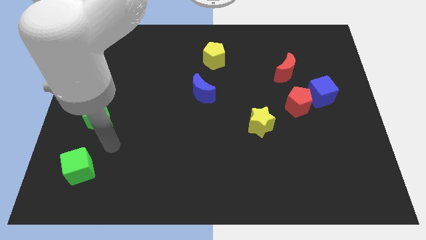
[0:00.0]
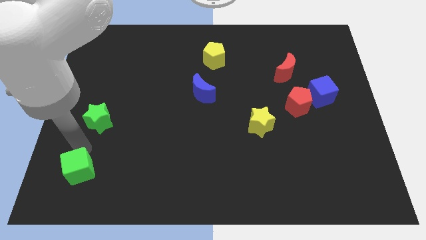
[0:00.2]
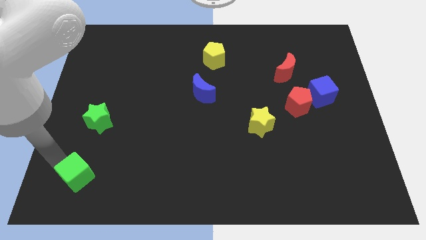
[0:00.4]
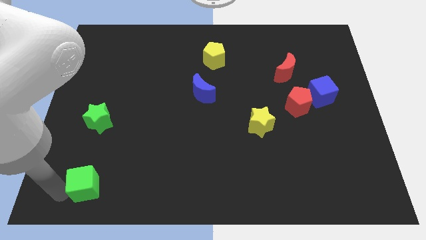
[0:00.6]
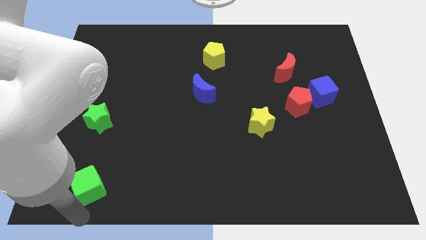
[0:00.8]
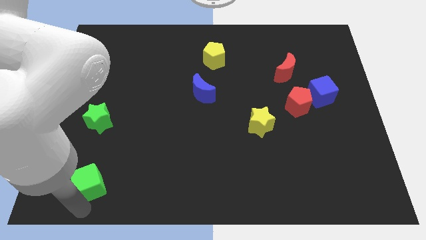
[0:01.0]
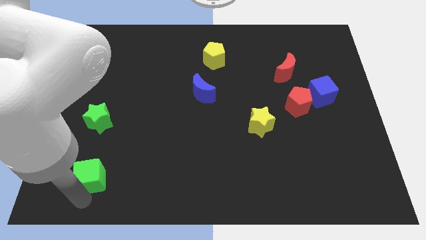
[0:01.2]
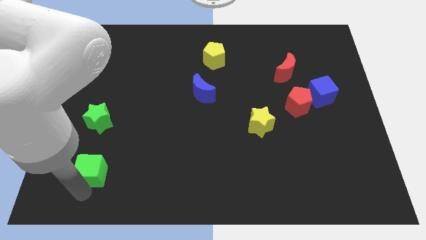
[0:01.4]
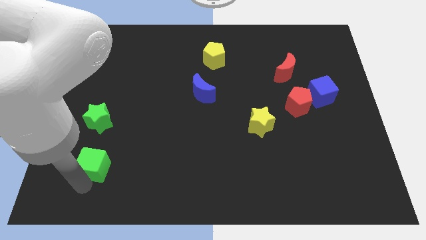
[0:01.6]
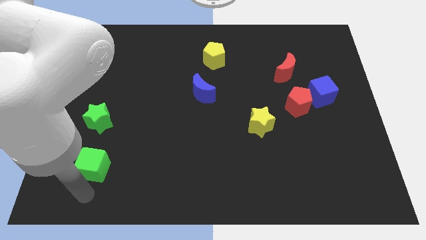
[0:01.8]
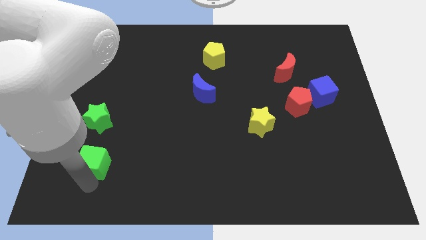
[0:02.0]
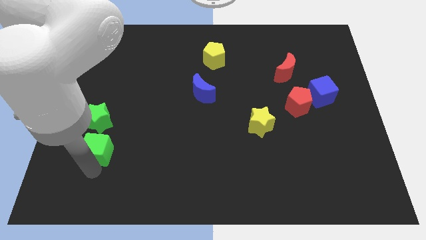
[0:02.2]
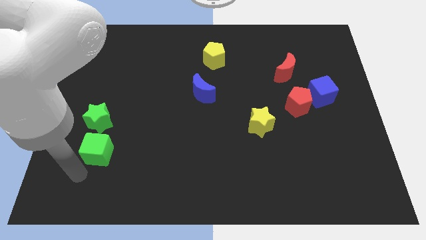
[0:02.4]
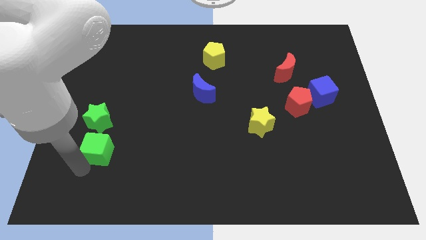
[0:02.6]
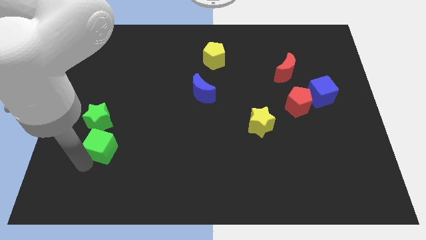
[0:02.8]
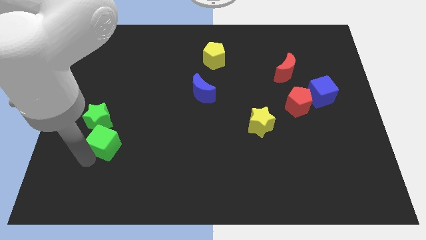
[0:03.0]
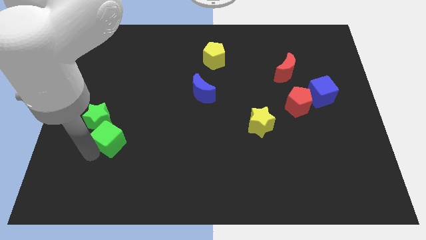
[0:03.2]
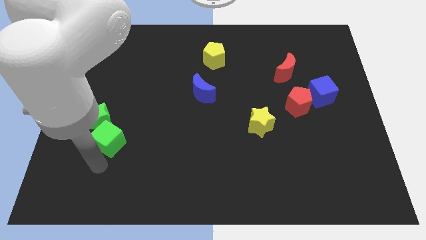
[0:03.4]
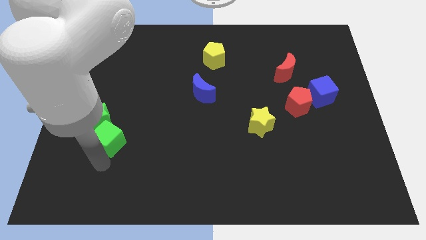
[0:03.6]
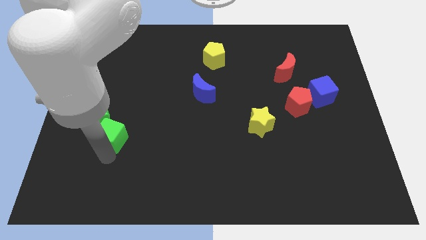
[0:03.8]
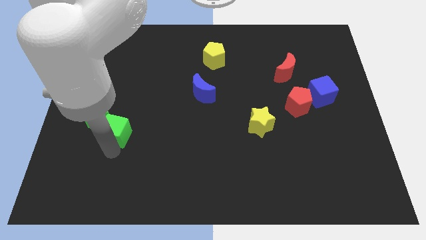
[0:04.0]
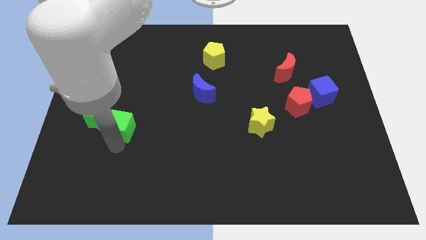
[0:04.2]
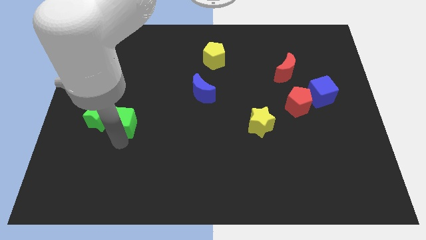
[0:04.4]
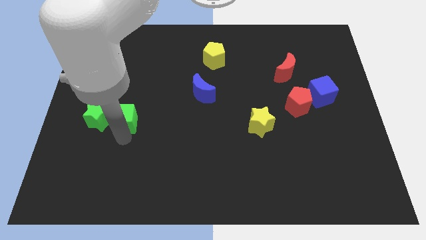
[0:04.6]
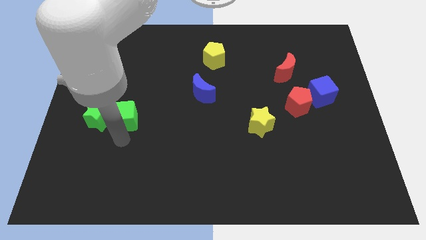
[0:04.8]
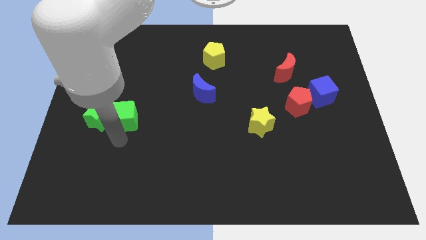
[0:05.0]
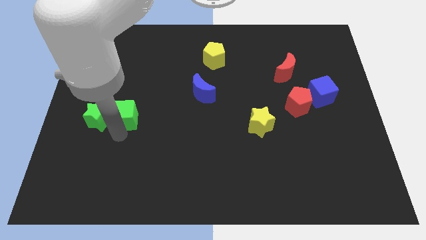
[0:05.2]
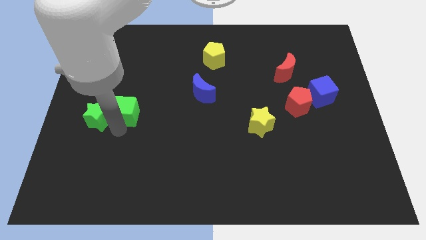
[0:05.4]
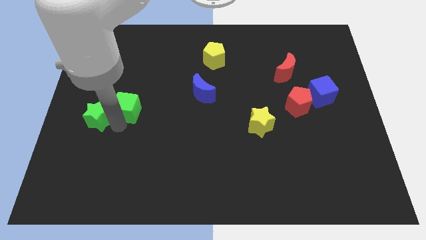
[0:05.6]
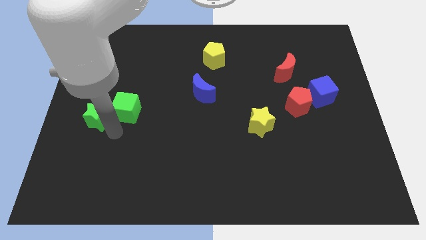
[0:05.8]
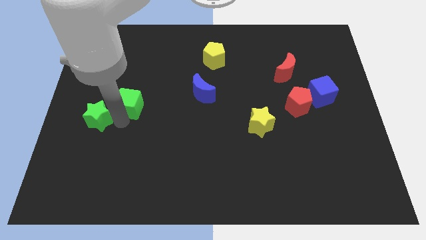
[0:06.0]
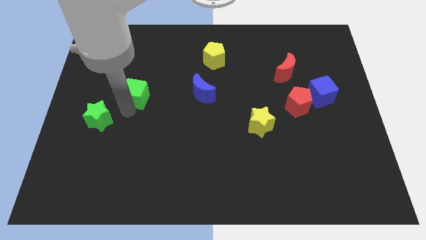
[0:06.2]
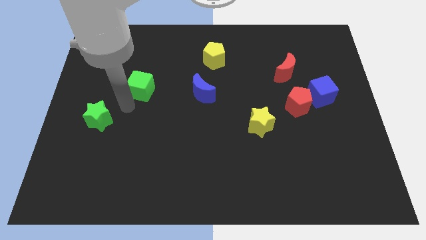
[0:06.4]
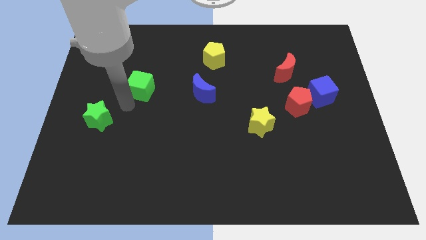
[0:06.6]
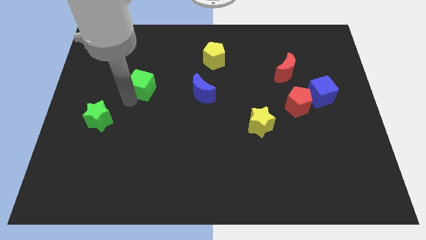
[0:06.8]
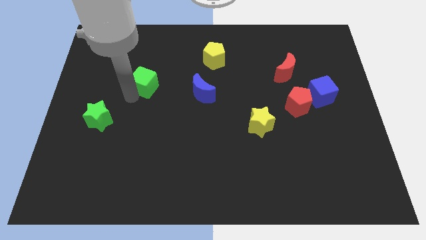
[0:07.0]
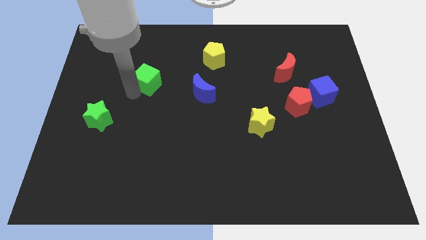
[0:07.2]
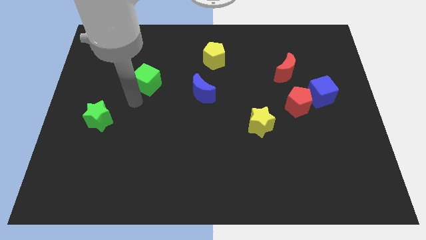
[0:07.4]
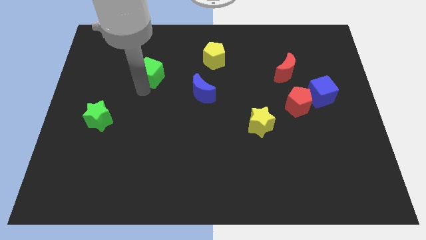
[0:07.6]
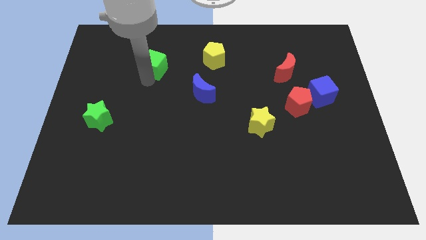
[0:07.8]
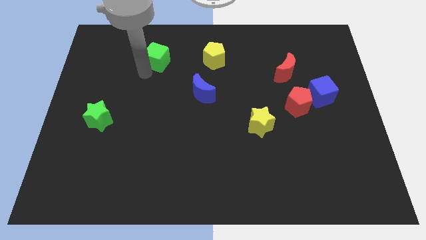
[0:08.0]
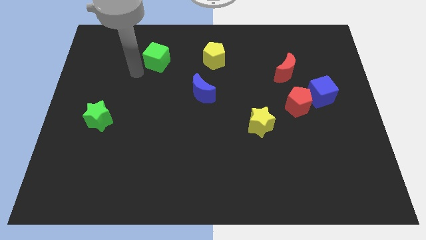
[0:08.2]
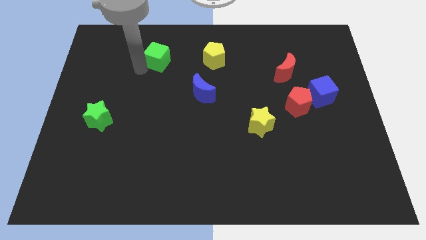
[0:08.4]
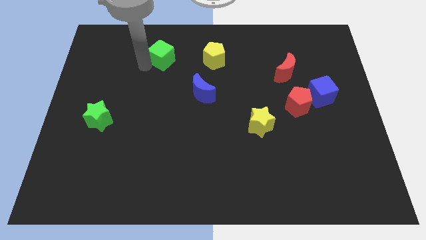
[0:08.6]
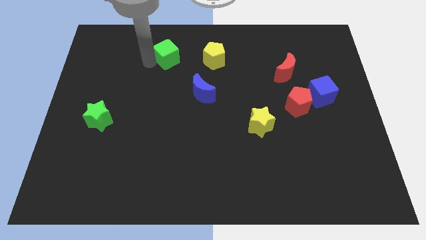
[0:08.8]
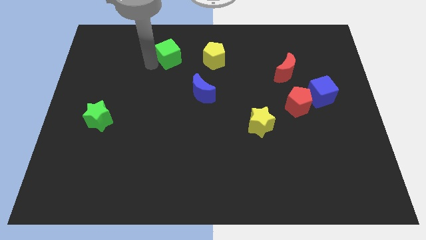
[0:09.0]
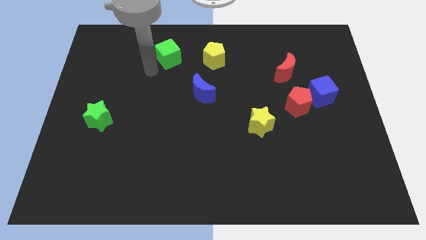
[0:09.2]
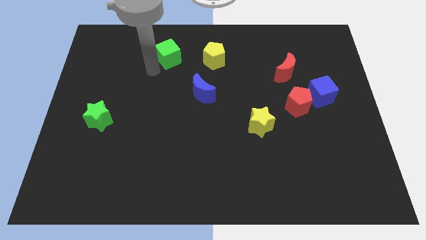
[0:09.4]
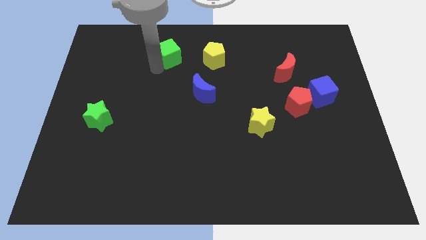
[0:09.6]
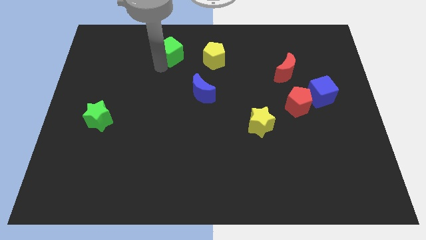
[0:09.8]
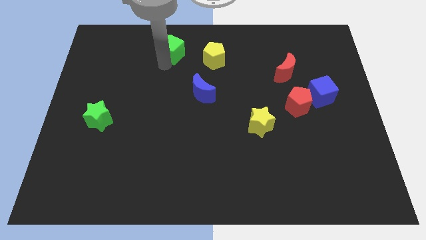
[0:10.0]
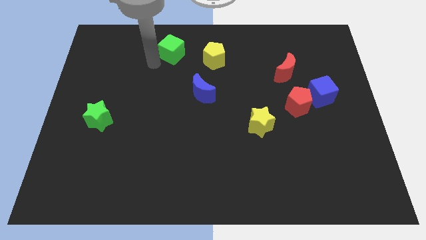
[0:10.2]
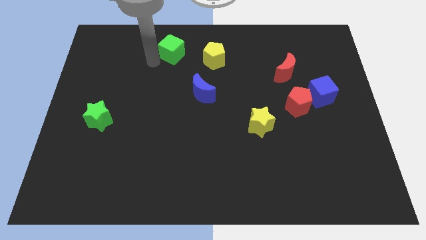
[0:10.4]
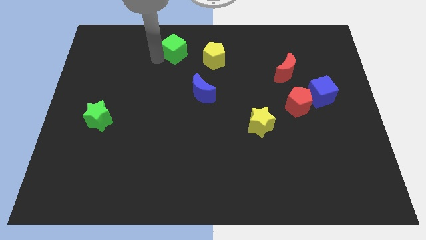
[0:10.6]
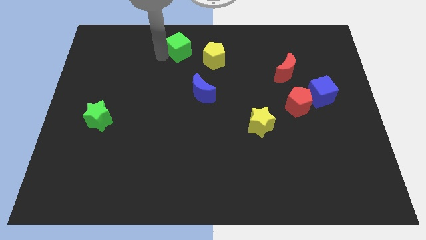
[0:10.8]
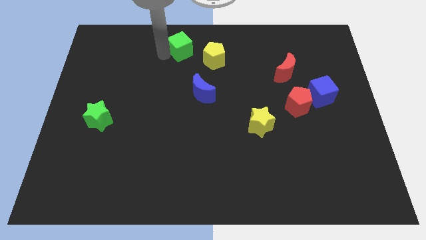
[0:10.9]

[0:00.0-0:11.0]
slide the green cube to the top side
